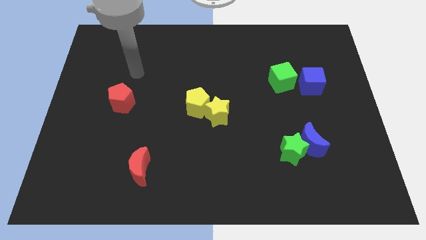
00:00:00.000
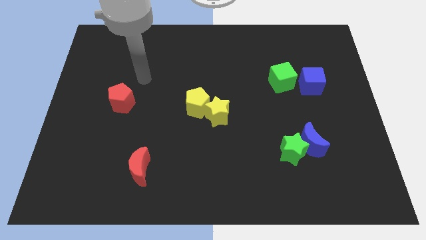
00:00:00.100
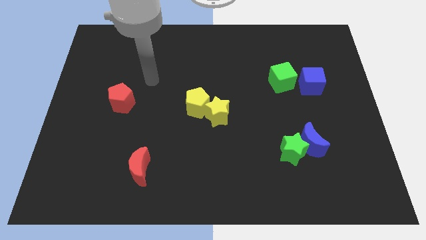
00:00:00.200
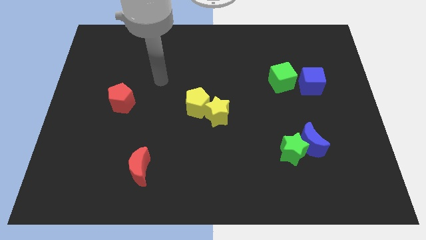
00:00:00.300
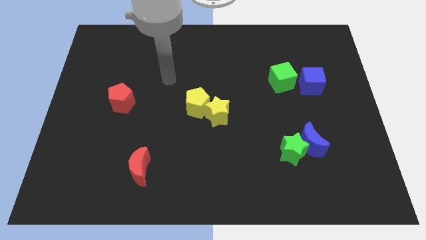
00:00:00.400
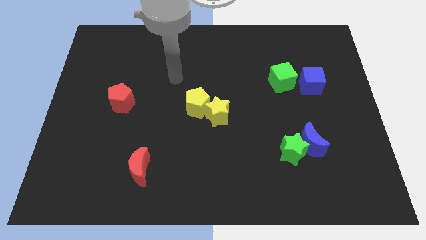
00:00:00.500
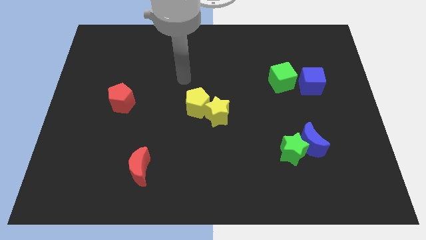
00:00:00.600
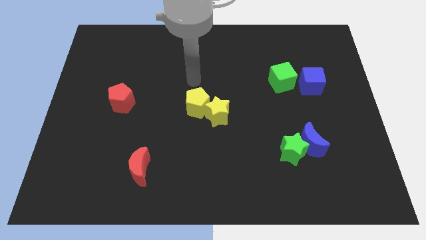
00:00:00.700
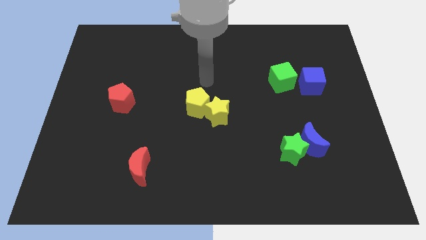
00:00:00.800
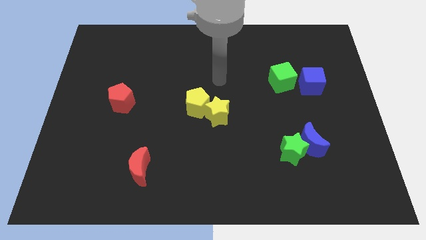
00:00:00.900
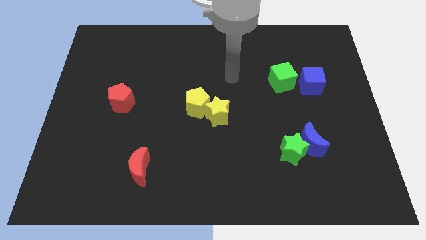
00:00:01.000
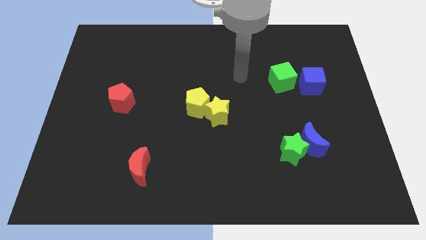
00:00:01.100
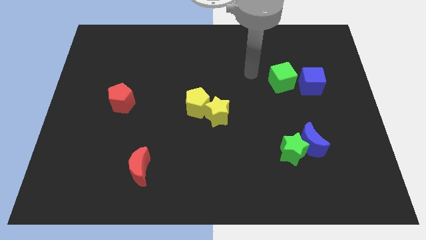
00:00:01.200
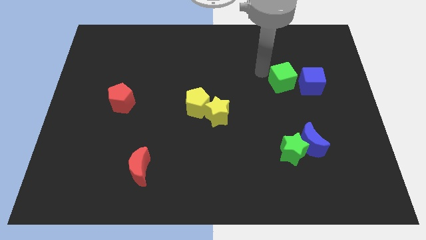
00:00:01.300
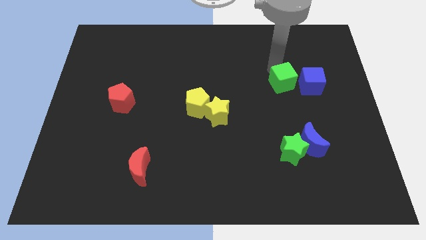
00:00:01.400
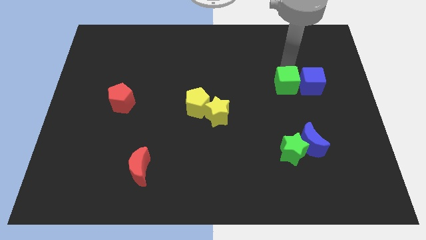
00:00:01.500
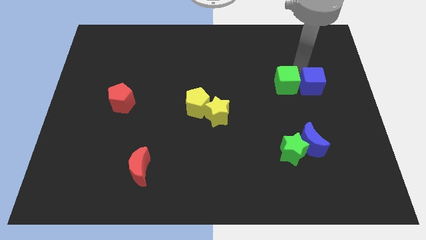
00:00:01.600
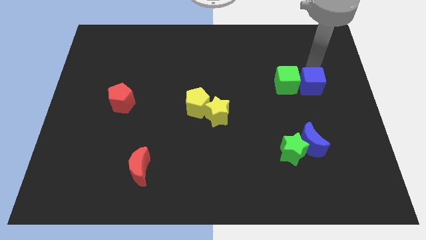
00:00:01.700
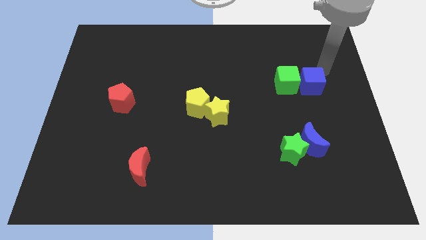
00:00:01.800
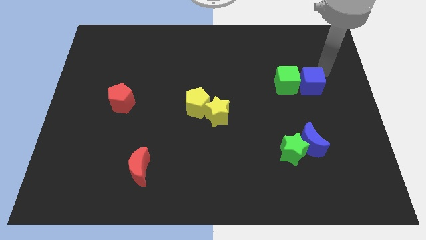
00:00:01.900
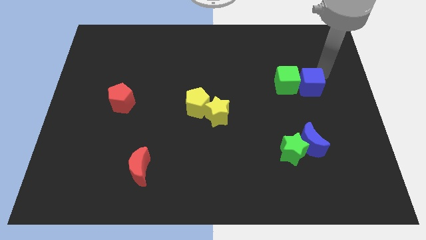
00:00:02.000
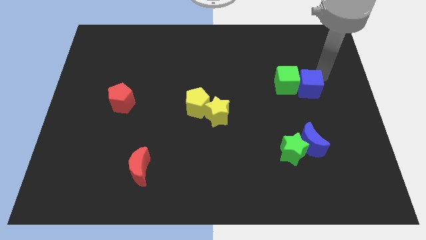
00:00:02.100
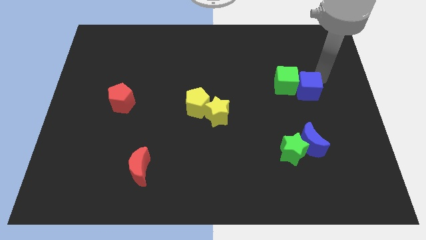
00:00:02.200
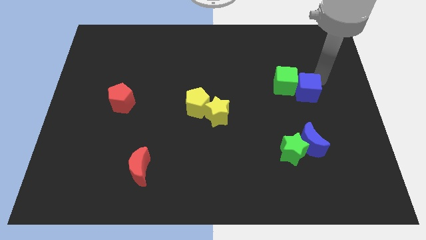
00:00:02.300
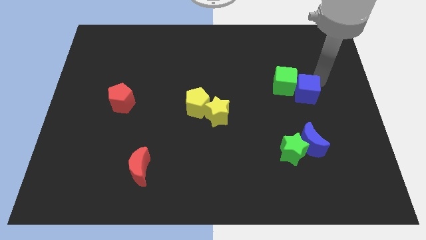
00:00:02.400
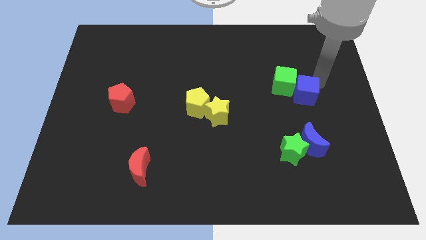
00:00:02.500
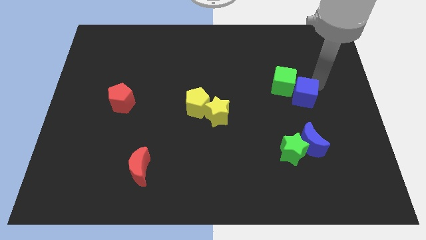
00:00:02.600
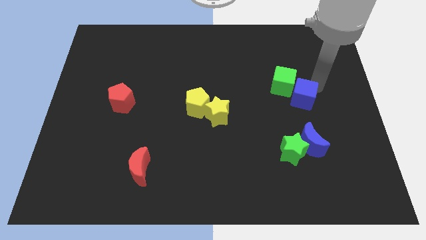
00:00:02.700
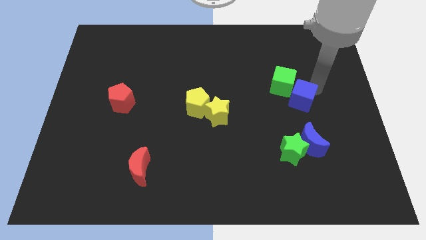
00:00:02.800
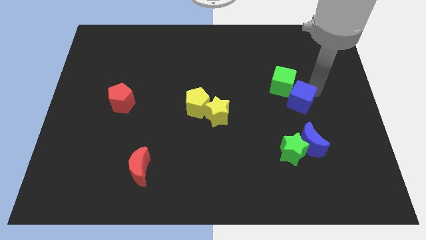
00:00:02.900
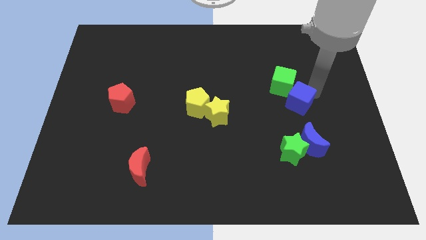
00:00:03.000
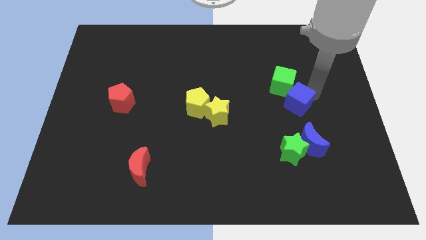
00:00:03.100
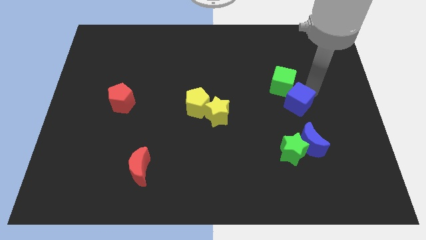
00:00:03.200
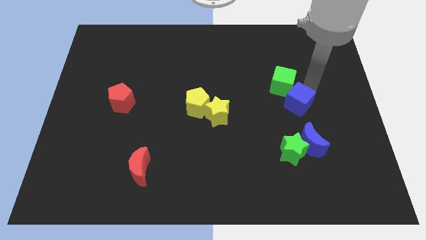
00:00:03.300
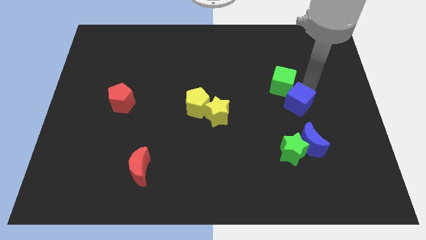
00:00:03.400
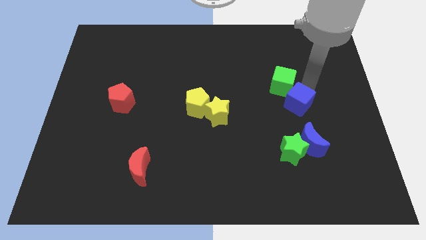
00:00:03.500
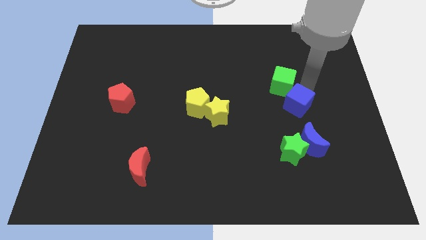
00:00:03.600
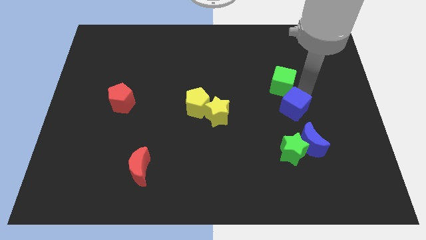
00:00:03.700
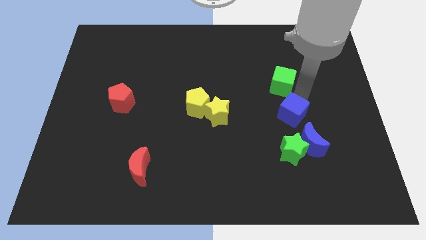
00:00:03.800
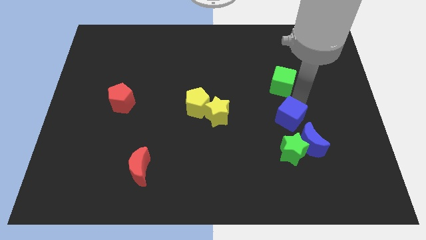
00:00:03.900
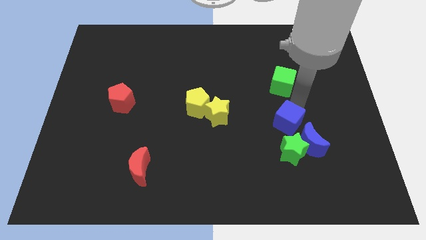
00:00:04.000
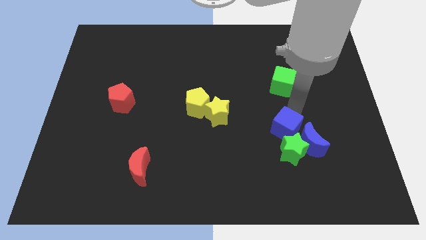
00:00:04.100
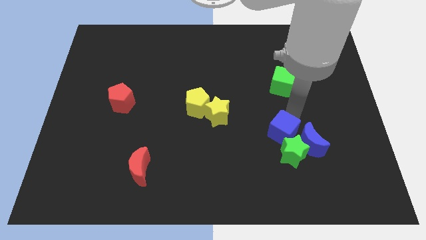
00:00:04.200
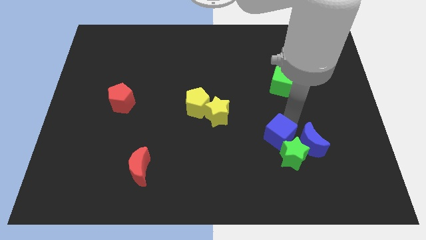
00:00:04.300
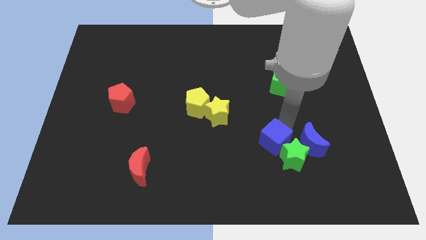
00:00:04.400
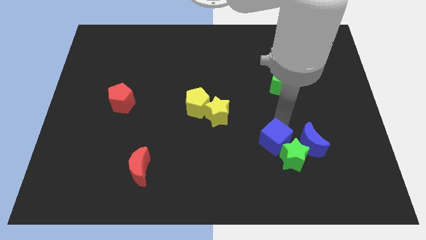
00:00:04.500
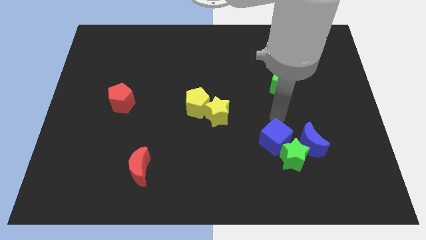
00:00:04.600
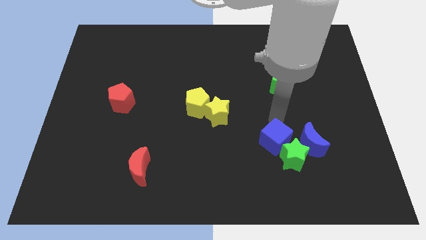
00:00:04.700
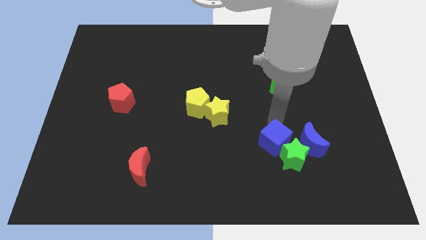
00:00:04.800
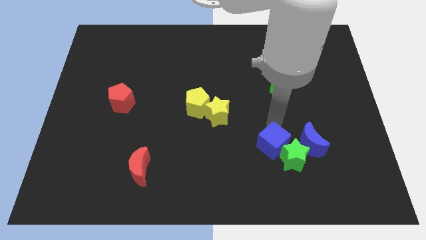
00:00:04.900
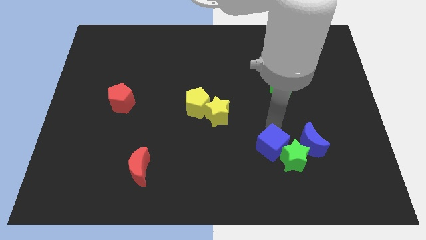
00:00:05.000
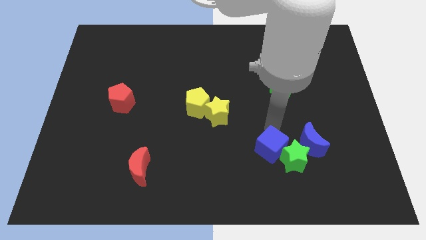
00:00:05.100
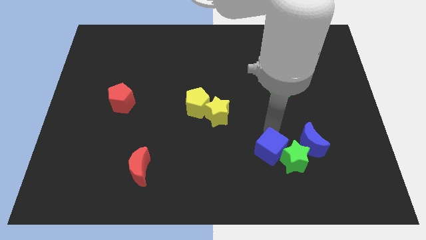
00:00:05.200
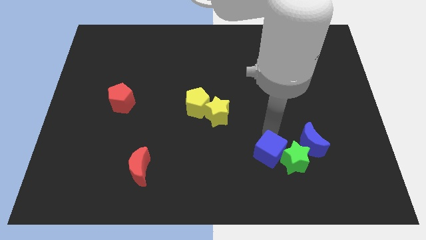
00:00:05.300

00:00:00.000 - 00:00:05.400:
slide the blue cube diagonally down and to the left of the blue moon
